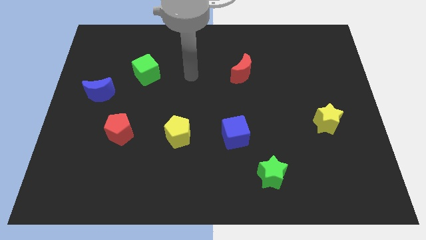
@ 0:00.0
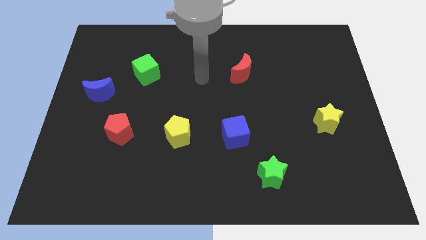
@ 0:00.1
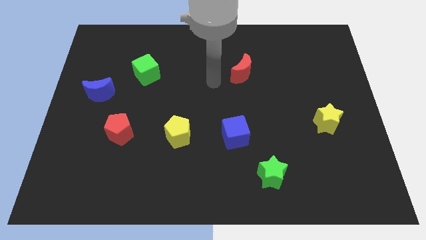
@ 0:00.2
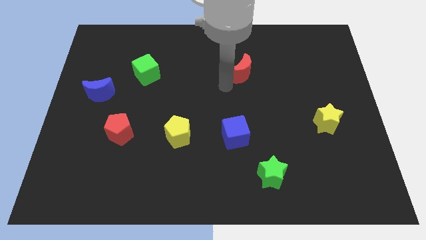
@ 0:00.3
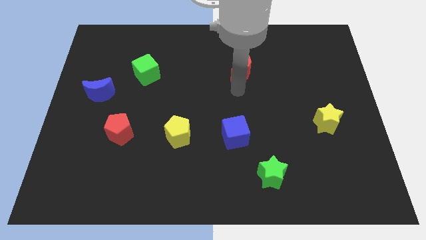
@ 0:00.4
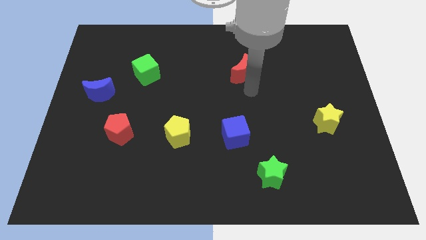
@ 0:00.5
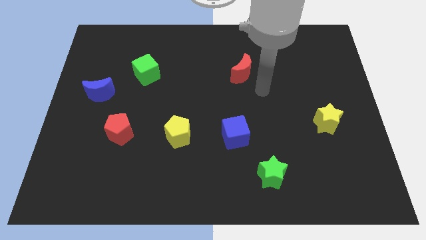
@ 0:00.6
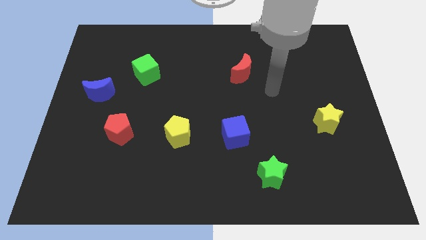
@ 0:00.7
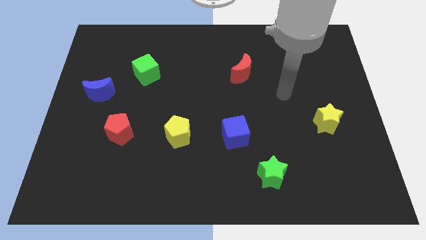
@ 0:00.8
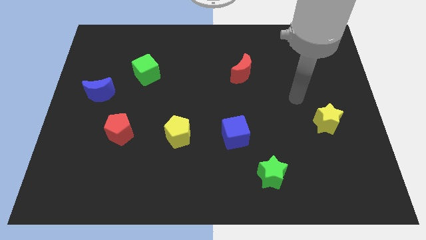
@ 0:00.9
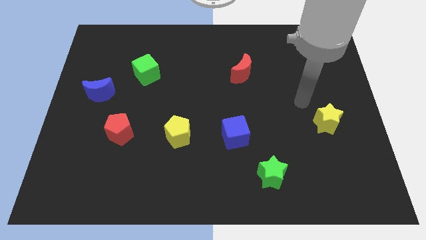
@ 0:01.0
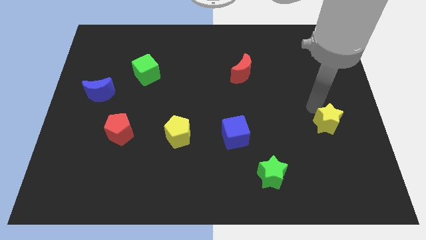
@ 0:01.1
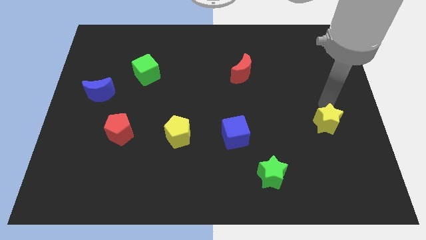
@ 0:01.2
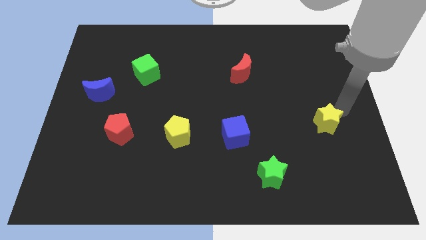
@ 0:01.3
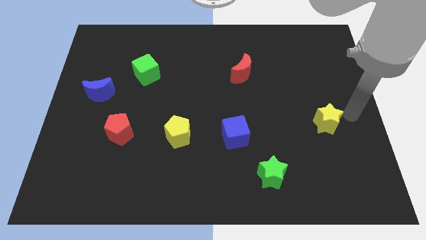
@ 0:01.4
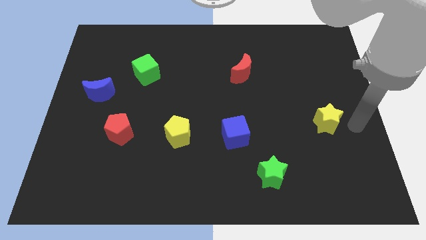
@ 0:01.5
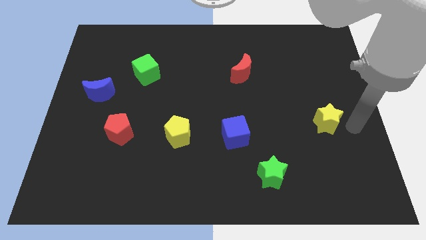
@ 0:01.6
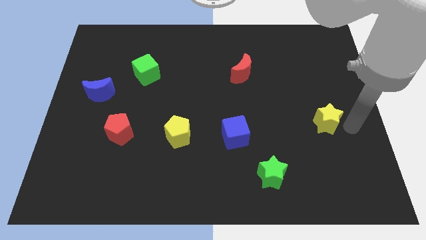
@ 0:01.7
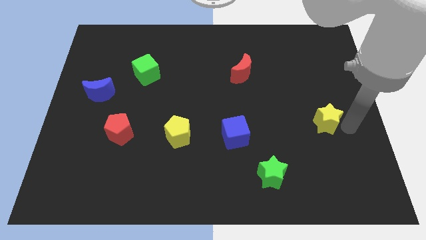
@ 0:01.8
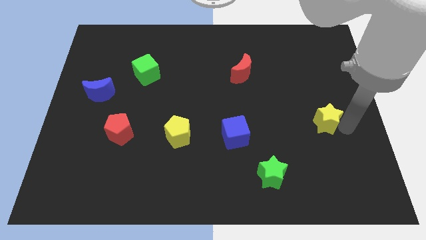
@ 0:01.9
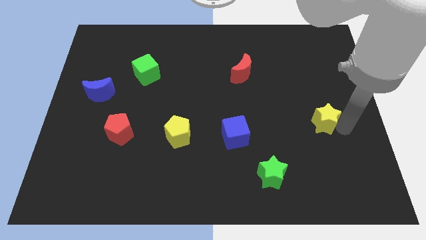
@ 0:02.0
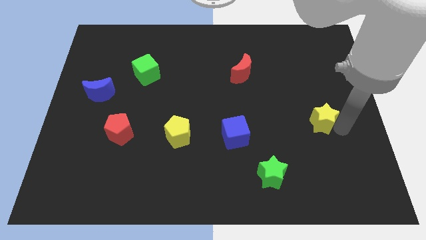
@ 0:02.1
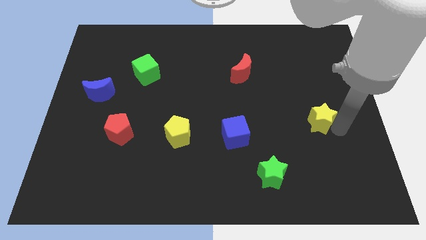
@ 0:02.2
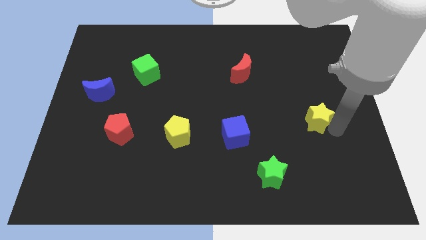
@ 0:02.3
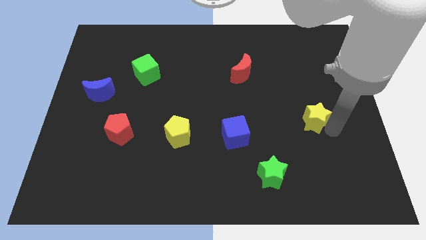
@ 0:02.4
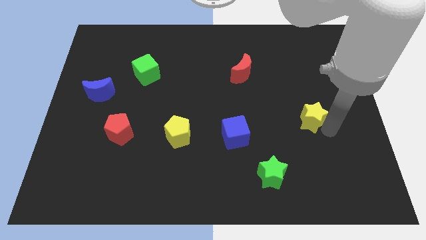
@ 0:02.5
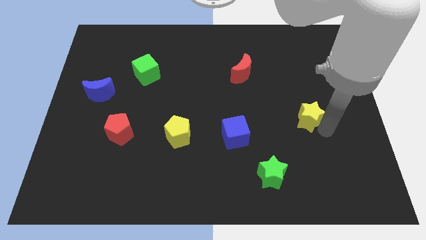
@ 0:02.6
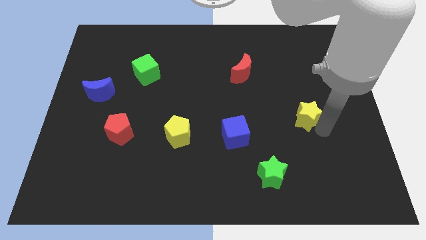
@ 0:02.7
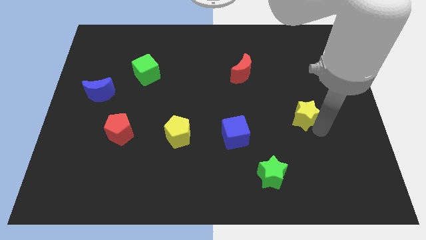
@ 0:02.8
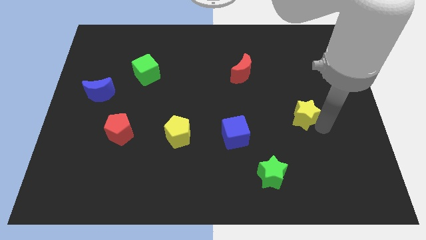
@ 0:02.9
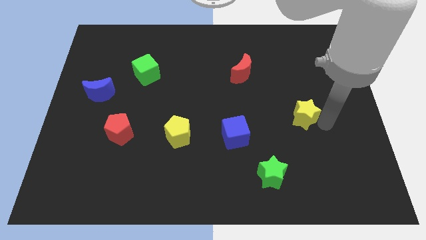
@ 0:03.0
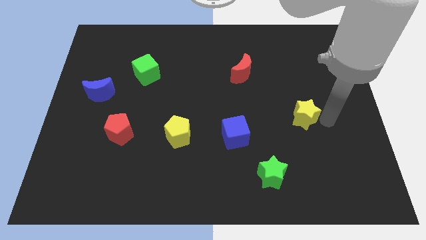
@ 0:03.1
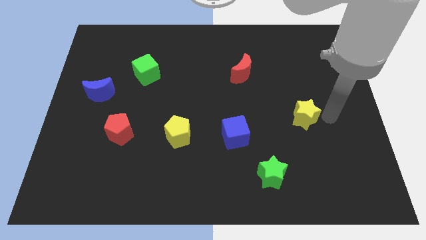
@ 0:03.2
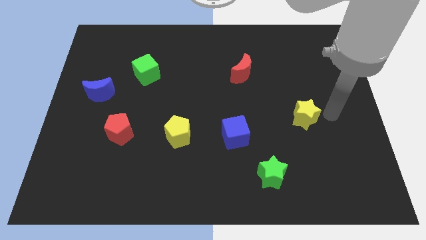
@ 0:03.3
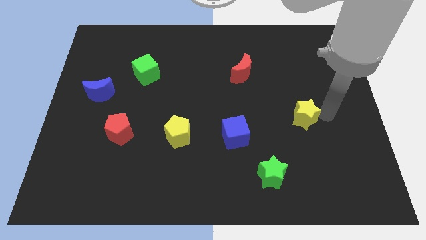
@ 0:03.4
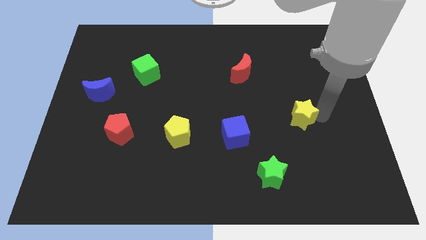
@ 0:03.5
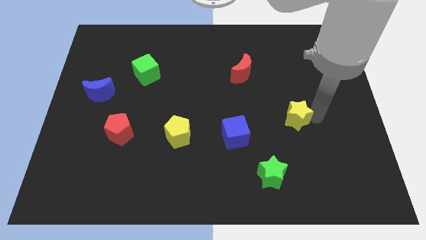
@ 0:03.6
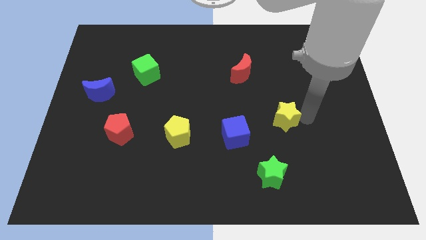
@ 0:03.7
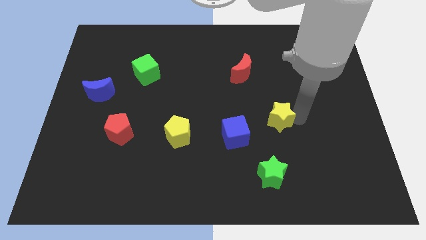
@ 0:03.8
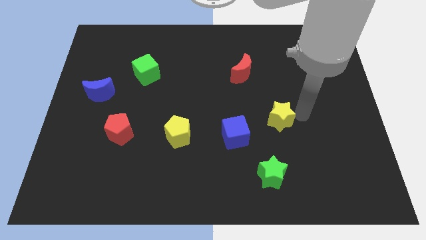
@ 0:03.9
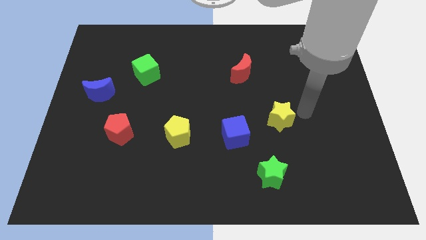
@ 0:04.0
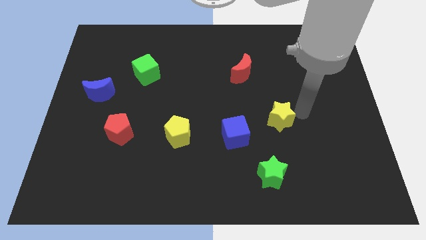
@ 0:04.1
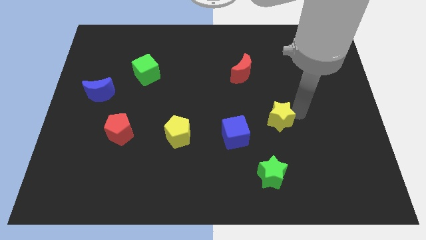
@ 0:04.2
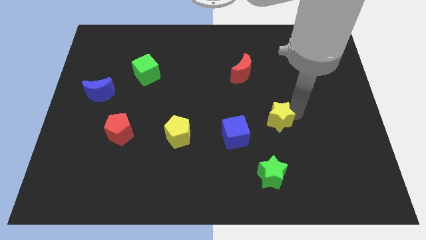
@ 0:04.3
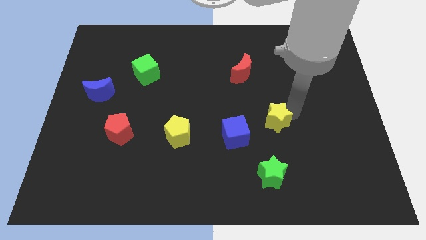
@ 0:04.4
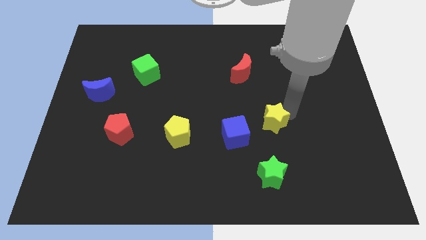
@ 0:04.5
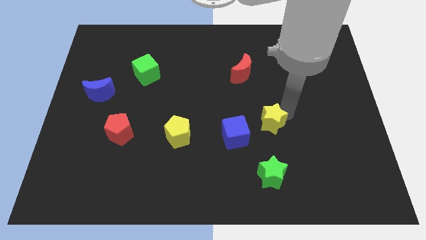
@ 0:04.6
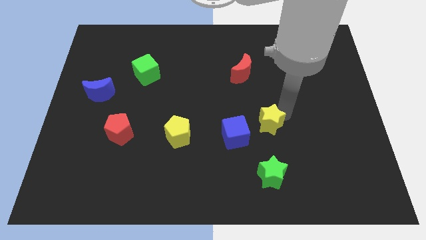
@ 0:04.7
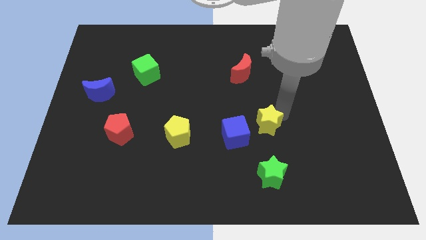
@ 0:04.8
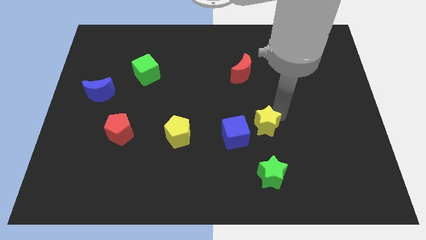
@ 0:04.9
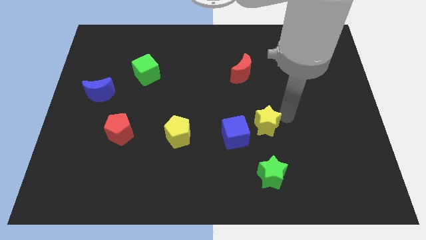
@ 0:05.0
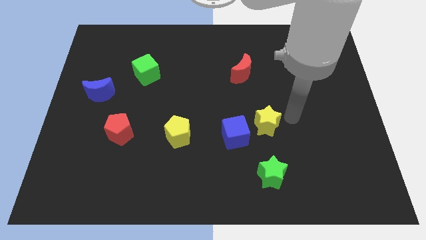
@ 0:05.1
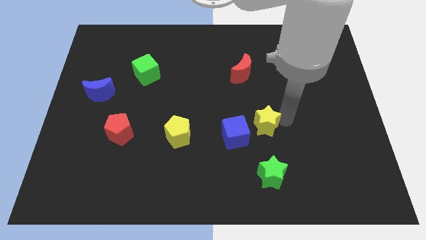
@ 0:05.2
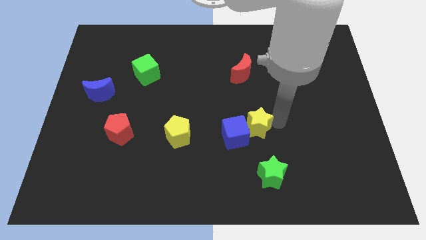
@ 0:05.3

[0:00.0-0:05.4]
put the yellow star next to the blue cube

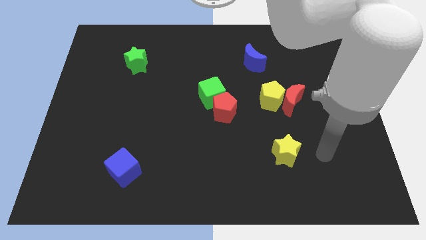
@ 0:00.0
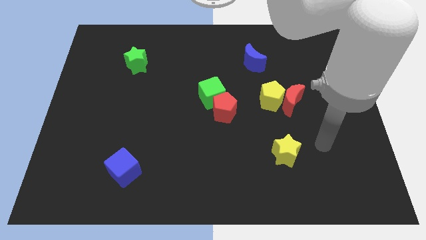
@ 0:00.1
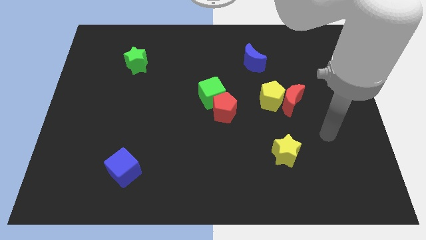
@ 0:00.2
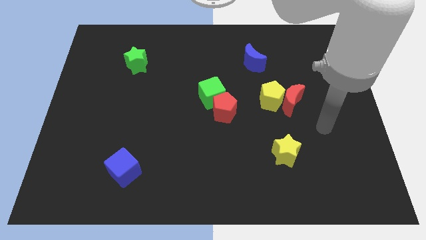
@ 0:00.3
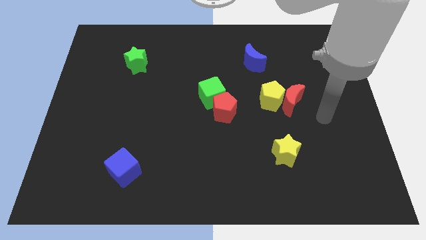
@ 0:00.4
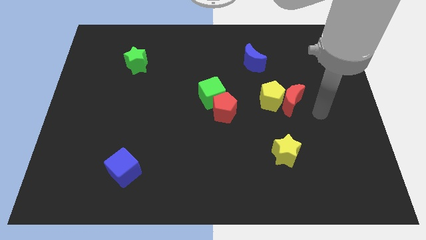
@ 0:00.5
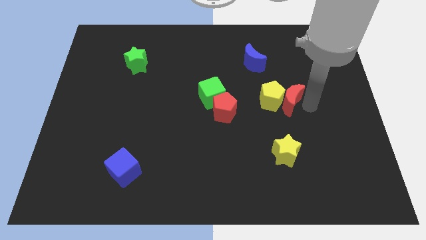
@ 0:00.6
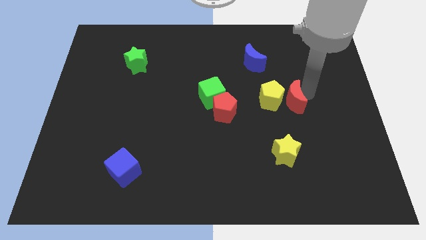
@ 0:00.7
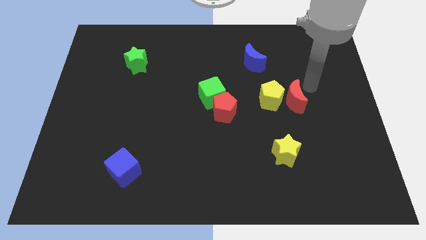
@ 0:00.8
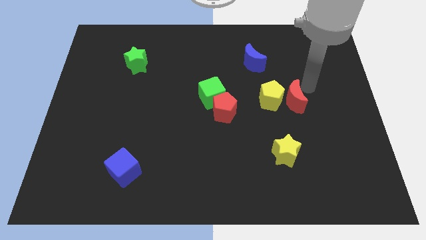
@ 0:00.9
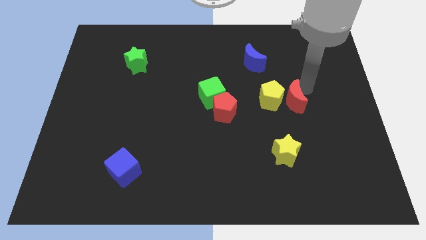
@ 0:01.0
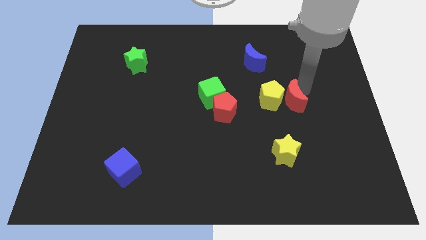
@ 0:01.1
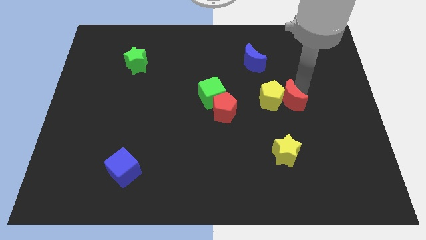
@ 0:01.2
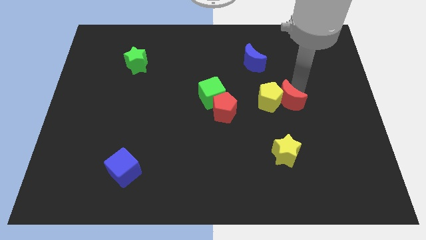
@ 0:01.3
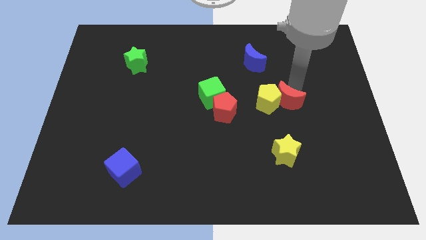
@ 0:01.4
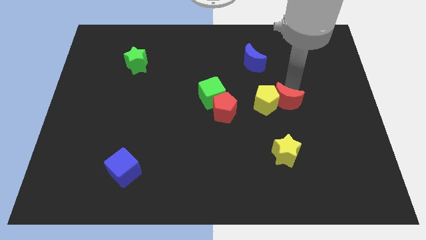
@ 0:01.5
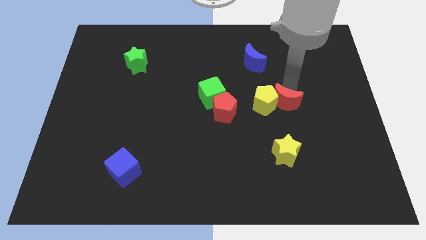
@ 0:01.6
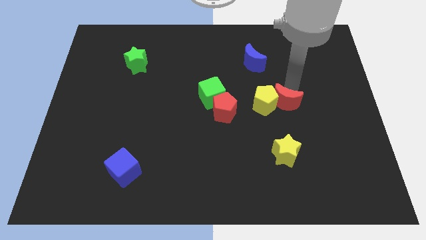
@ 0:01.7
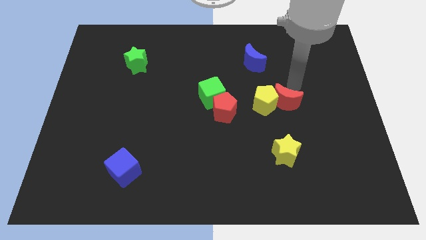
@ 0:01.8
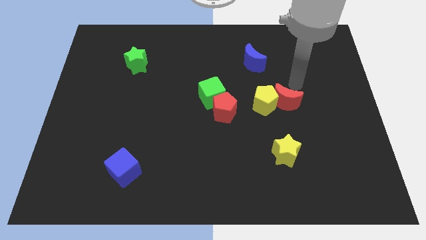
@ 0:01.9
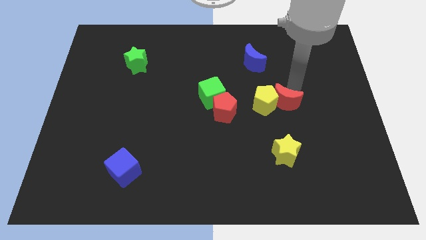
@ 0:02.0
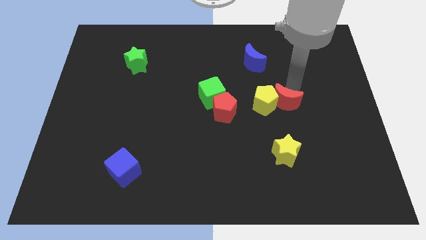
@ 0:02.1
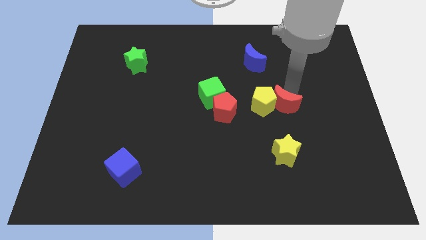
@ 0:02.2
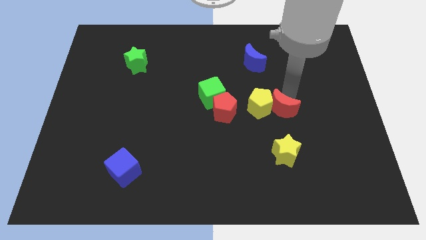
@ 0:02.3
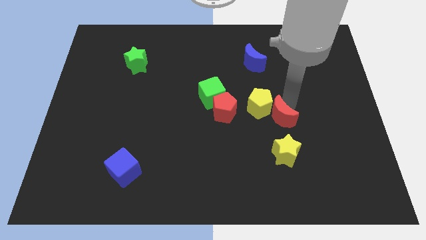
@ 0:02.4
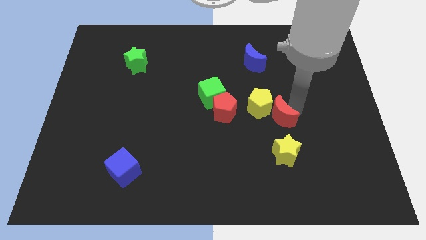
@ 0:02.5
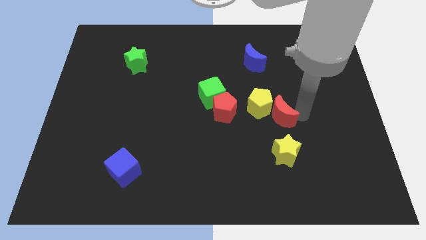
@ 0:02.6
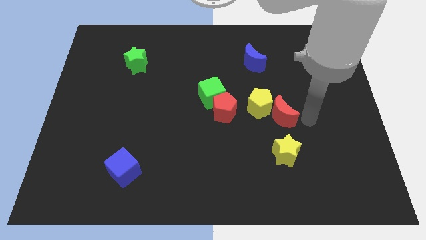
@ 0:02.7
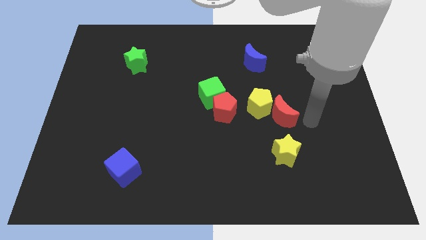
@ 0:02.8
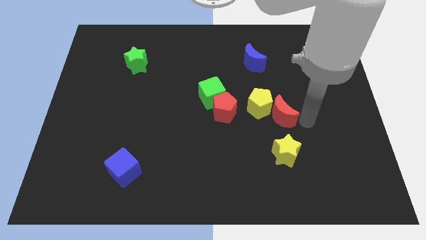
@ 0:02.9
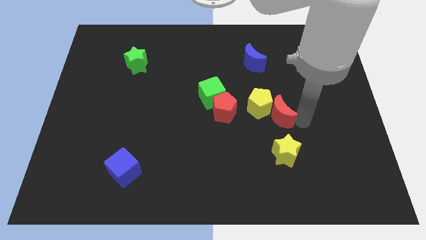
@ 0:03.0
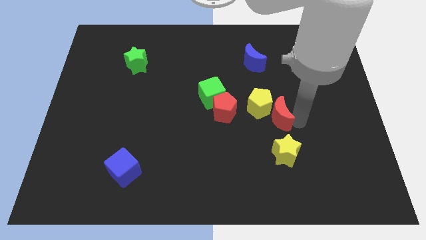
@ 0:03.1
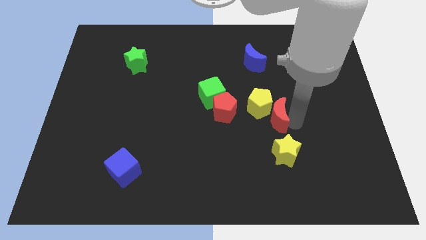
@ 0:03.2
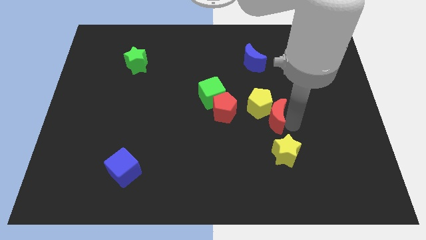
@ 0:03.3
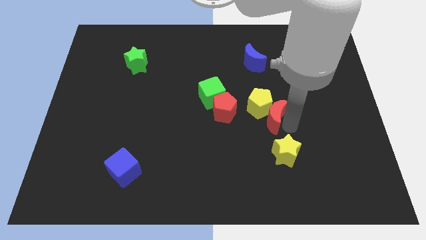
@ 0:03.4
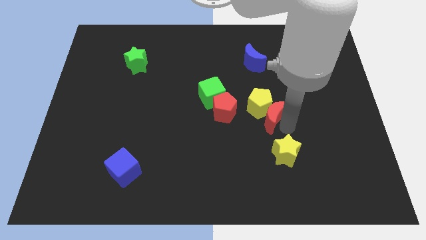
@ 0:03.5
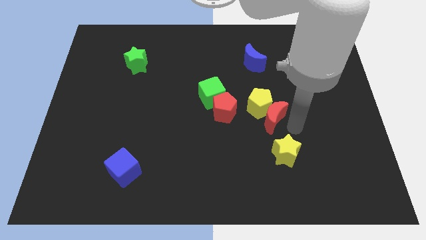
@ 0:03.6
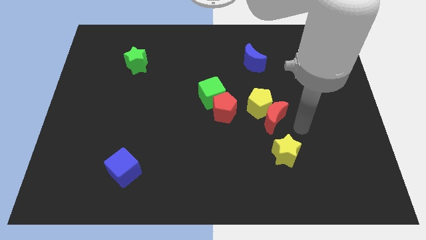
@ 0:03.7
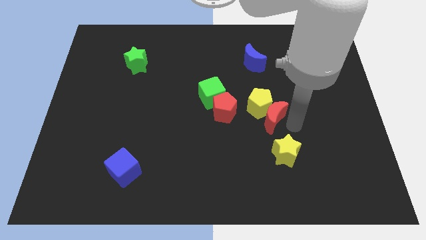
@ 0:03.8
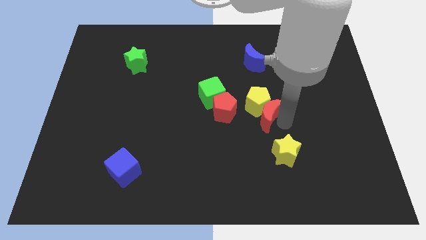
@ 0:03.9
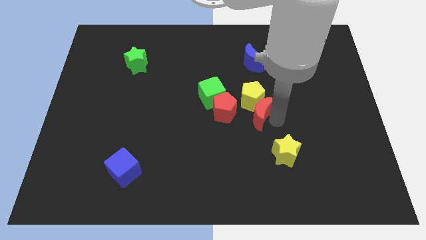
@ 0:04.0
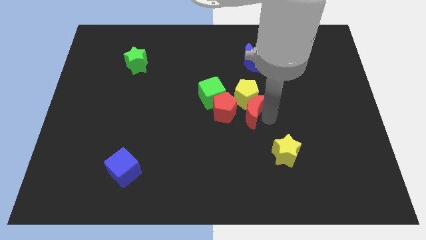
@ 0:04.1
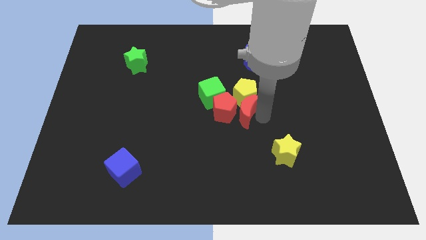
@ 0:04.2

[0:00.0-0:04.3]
slide the red moon to the red pentagon
